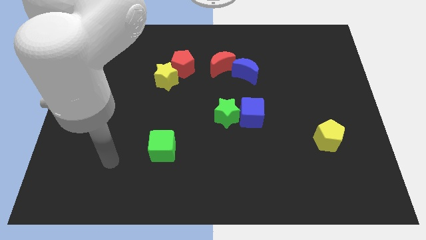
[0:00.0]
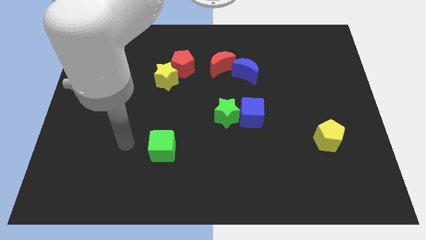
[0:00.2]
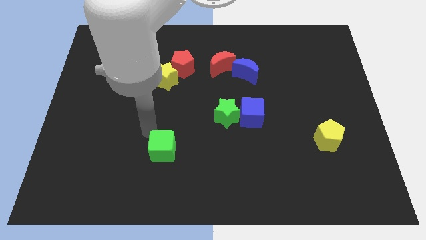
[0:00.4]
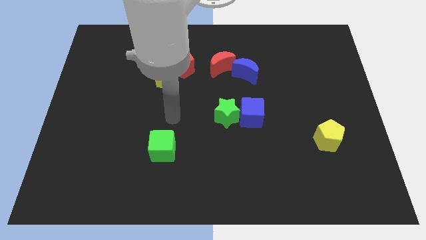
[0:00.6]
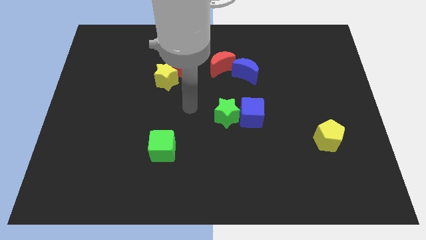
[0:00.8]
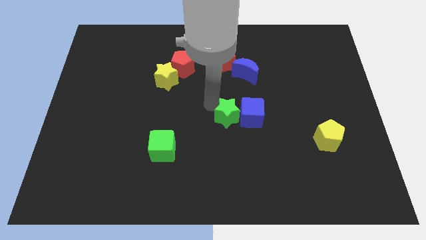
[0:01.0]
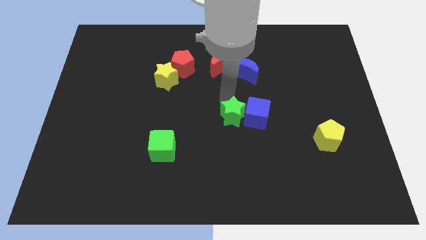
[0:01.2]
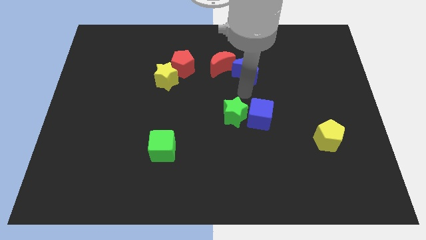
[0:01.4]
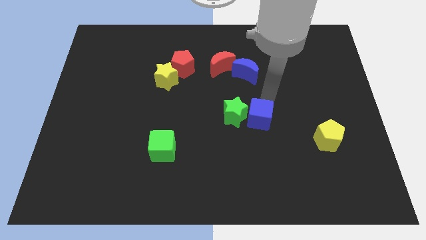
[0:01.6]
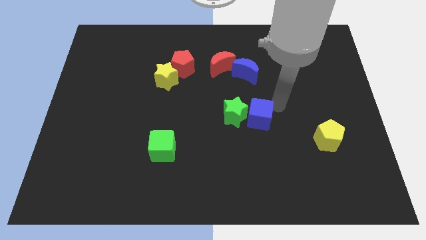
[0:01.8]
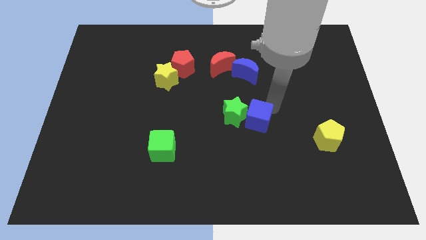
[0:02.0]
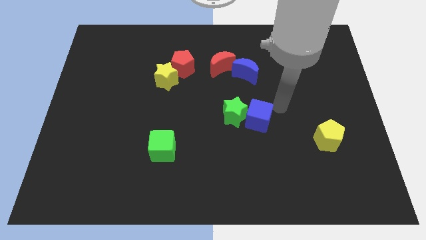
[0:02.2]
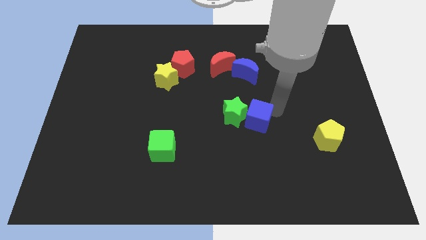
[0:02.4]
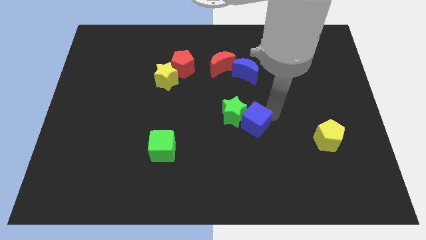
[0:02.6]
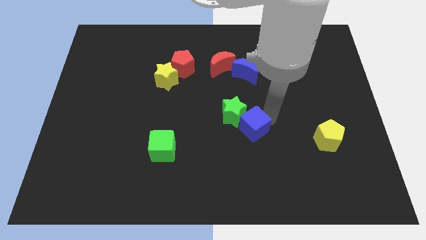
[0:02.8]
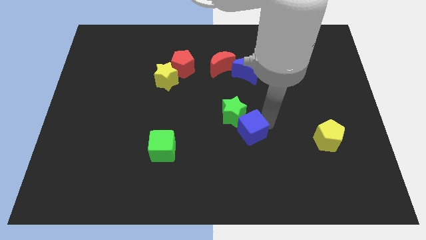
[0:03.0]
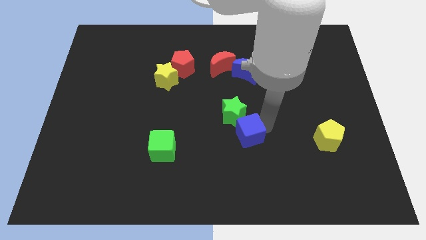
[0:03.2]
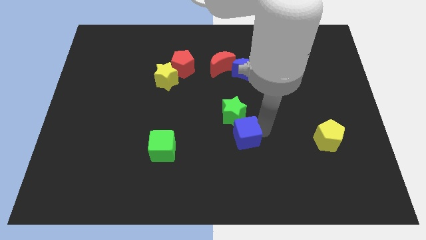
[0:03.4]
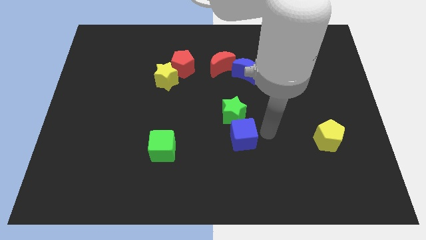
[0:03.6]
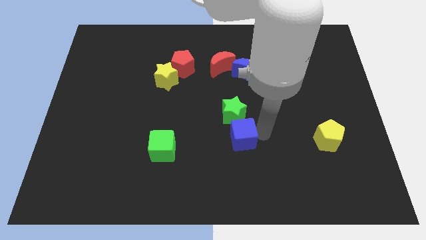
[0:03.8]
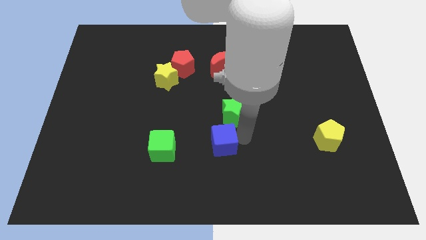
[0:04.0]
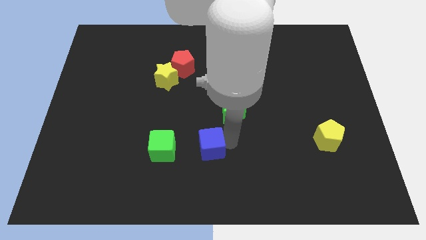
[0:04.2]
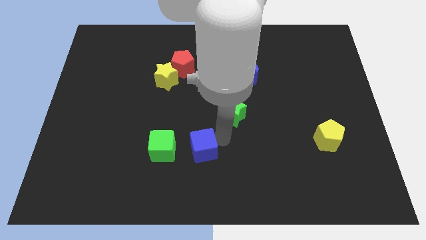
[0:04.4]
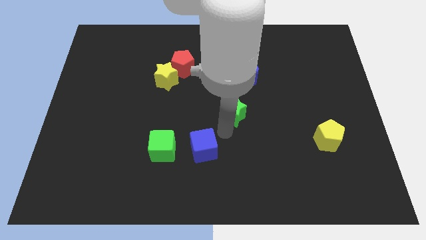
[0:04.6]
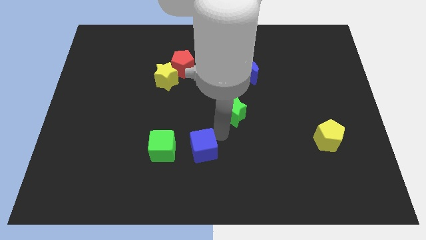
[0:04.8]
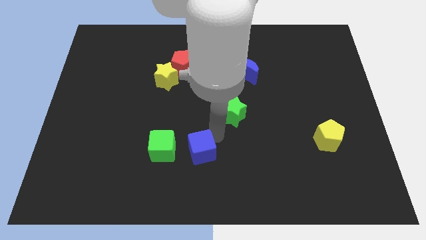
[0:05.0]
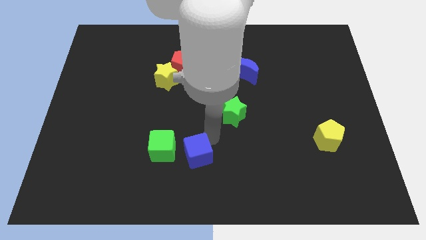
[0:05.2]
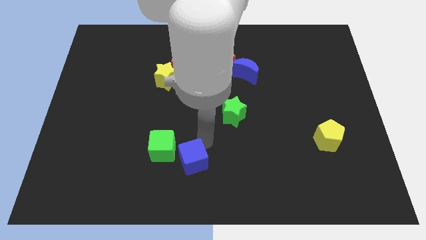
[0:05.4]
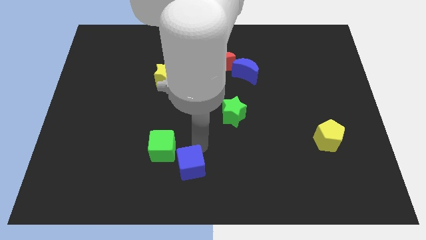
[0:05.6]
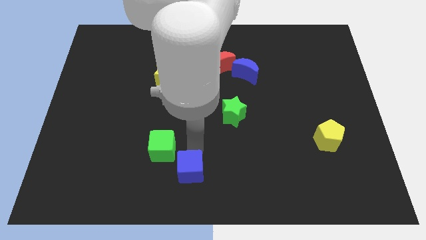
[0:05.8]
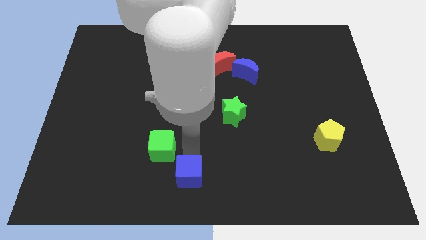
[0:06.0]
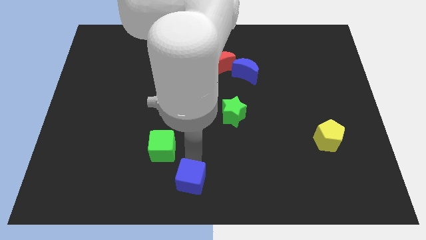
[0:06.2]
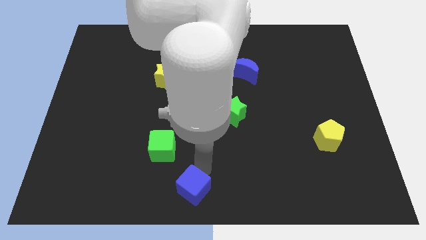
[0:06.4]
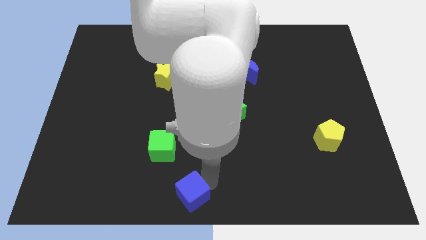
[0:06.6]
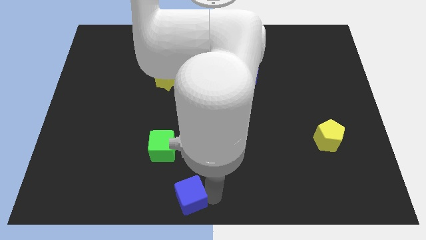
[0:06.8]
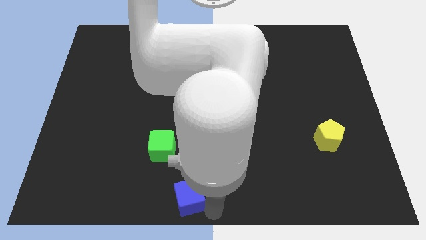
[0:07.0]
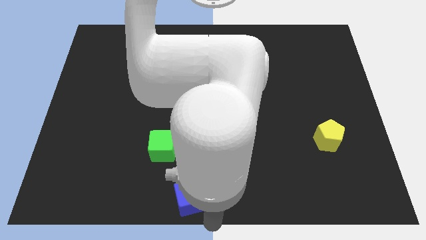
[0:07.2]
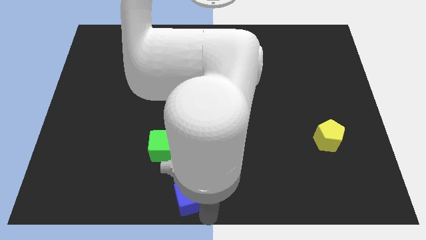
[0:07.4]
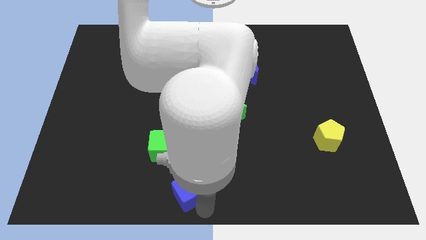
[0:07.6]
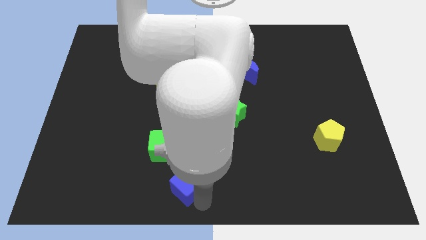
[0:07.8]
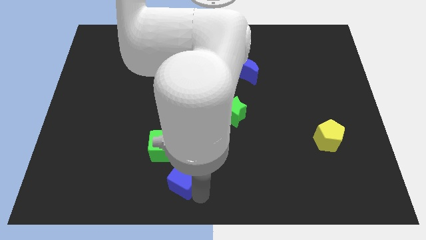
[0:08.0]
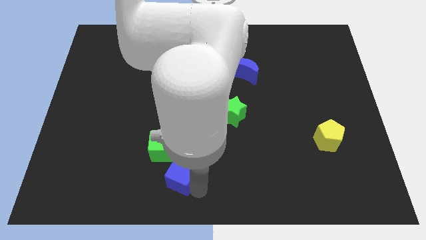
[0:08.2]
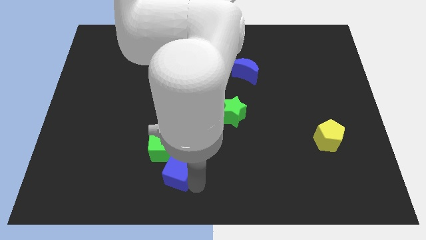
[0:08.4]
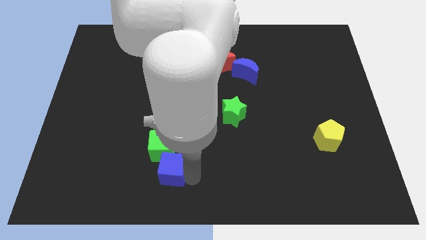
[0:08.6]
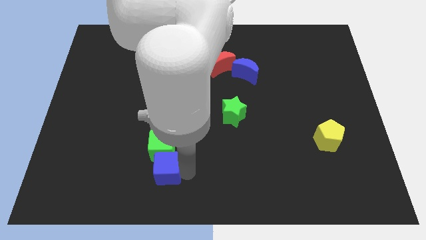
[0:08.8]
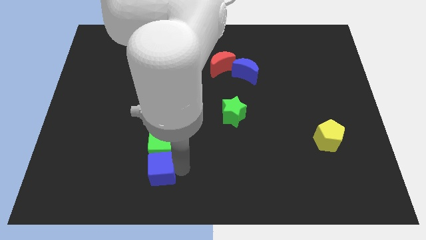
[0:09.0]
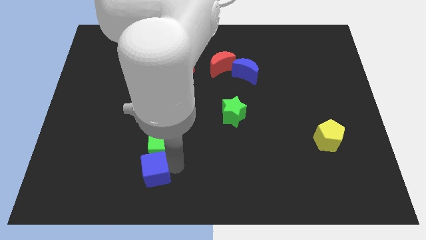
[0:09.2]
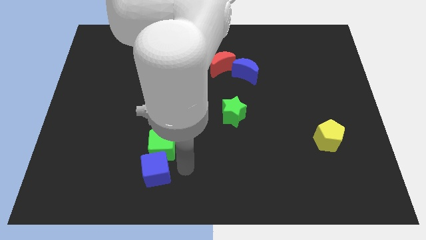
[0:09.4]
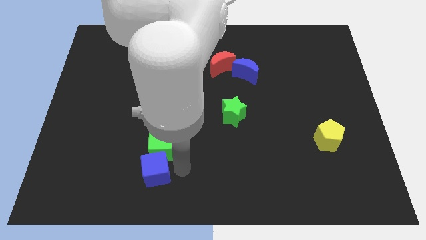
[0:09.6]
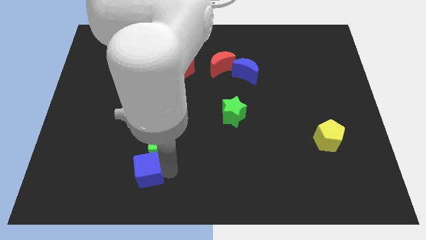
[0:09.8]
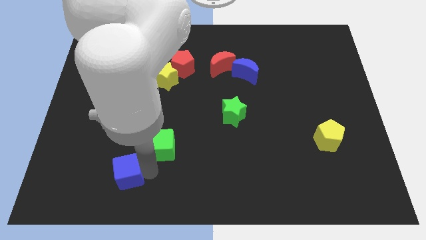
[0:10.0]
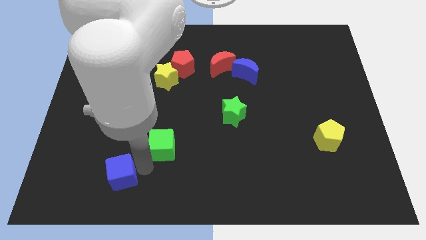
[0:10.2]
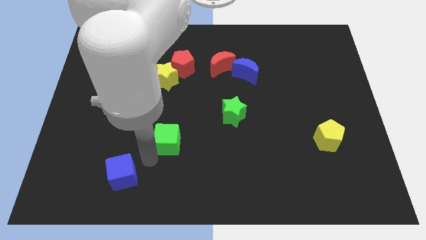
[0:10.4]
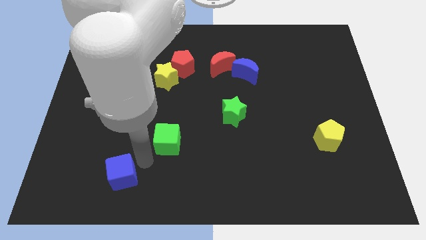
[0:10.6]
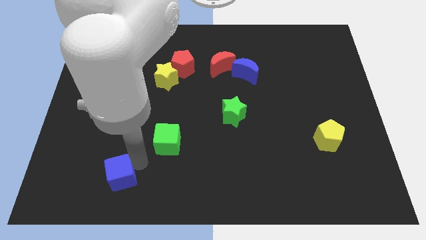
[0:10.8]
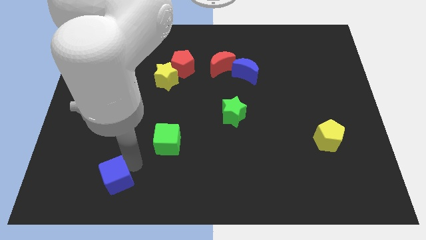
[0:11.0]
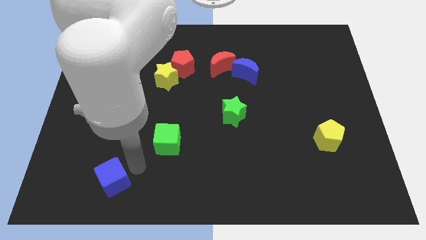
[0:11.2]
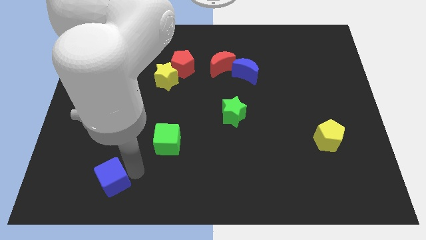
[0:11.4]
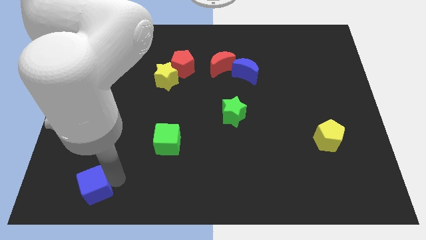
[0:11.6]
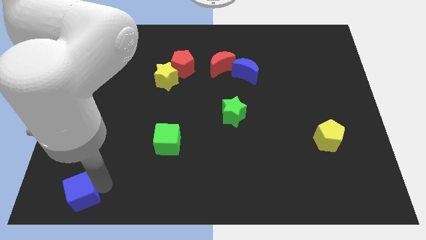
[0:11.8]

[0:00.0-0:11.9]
put the blue cube to the bottom left of the board
